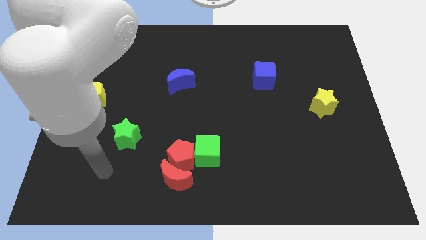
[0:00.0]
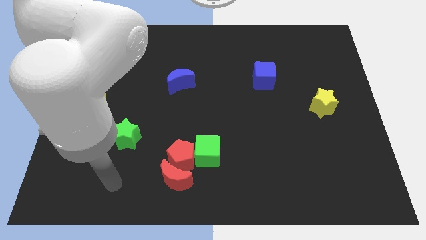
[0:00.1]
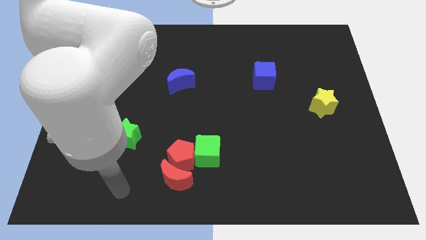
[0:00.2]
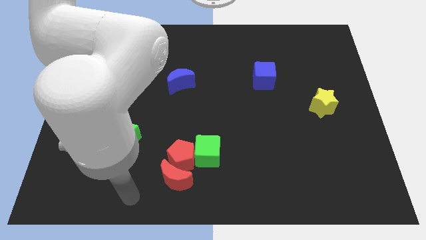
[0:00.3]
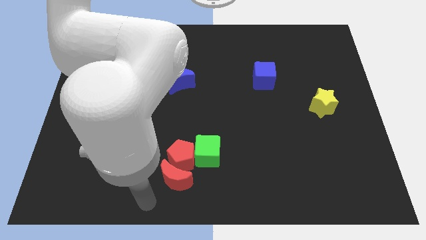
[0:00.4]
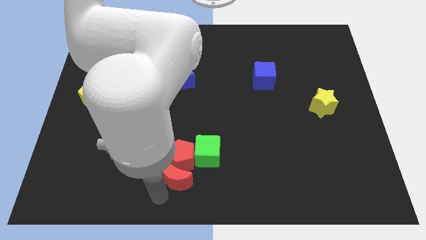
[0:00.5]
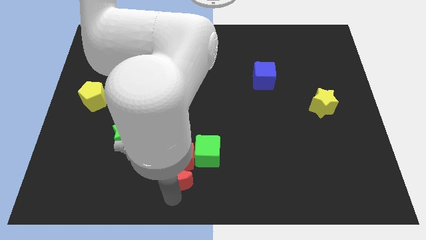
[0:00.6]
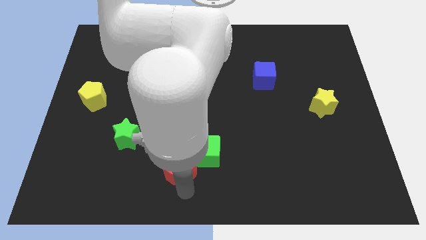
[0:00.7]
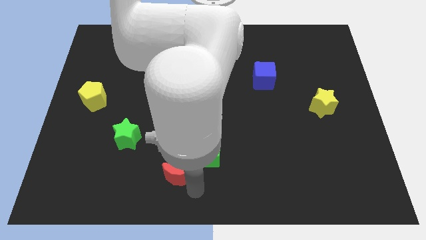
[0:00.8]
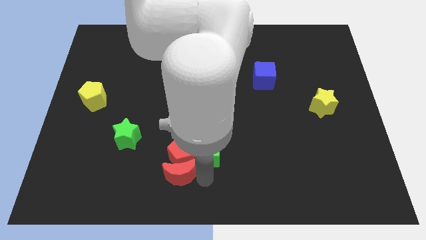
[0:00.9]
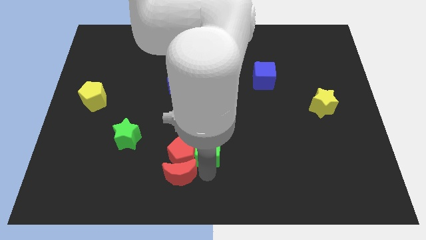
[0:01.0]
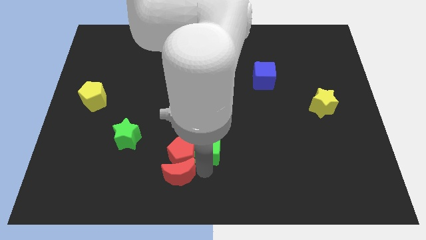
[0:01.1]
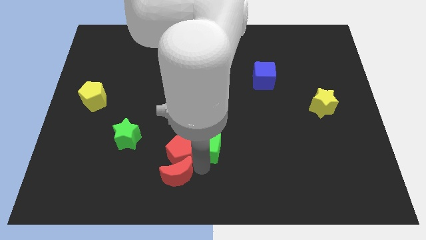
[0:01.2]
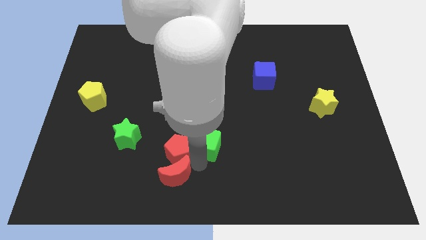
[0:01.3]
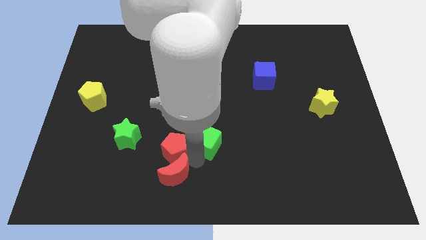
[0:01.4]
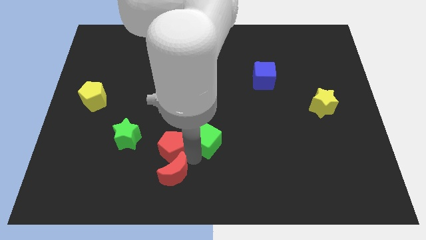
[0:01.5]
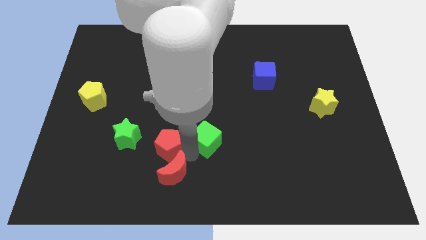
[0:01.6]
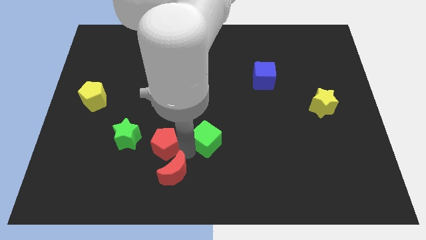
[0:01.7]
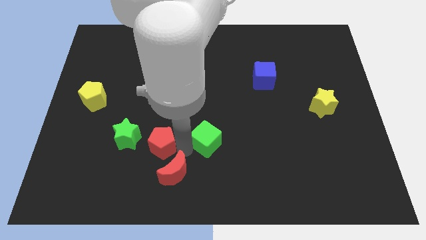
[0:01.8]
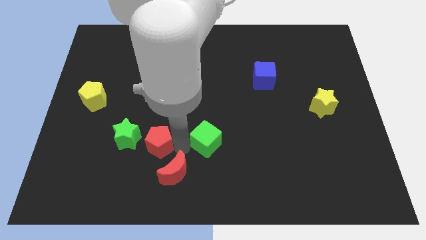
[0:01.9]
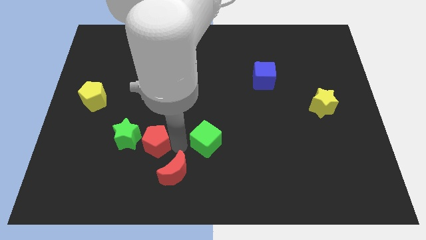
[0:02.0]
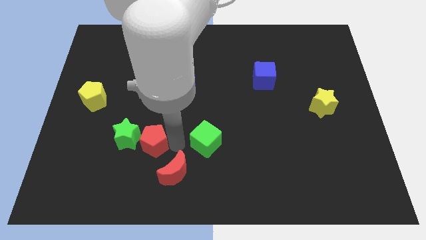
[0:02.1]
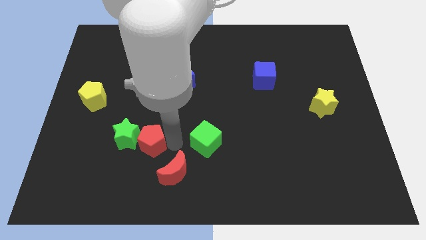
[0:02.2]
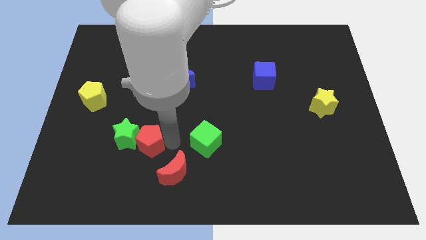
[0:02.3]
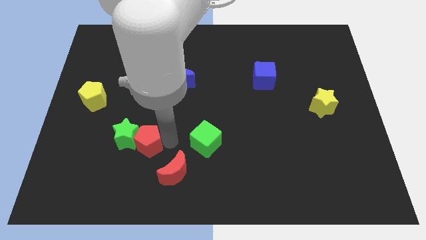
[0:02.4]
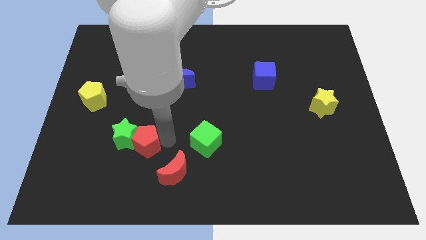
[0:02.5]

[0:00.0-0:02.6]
pull the red pentagon apart from the red moon and green cube

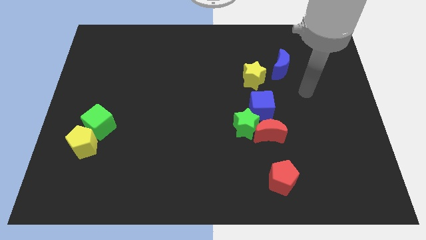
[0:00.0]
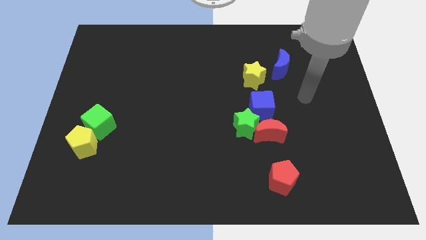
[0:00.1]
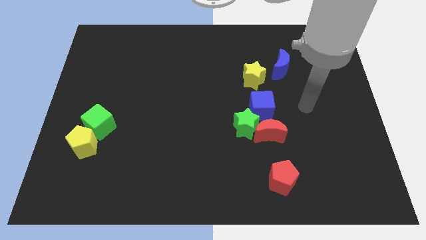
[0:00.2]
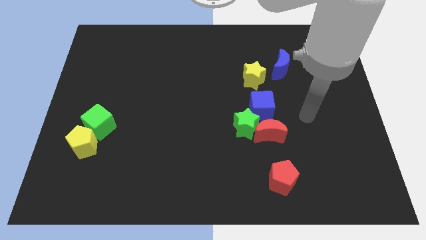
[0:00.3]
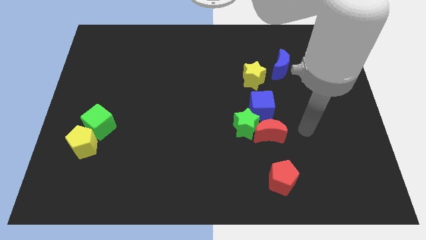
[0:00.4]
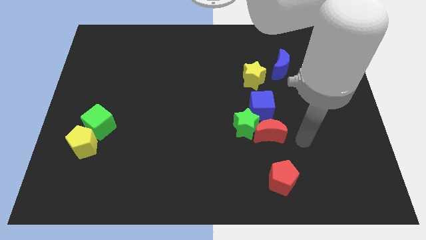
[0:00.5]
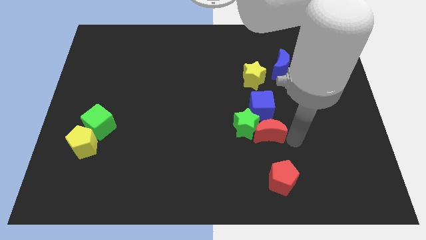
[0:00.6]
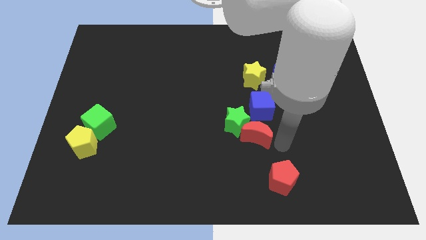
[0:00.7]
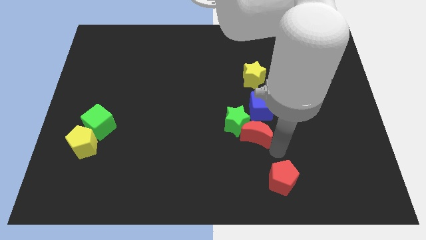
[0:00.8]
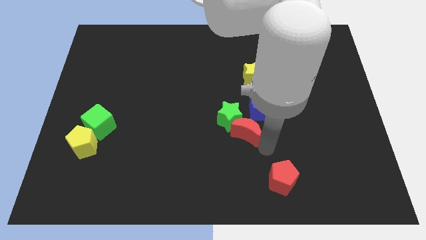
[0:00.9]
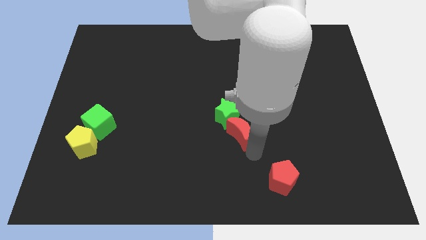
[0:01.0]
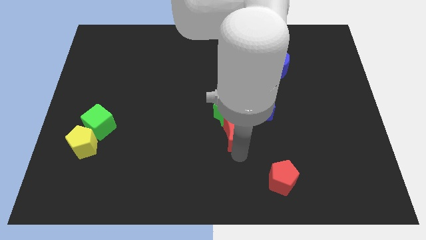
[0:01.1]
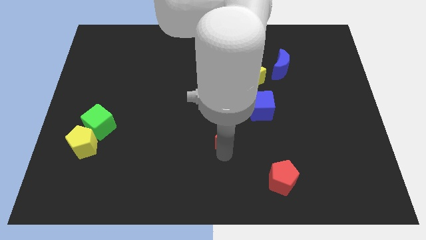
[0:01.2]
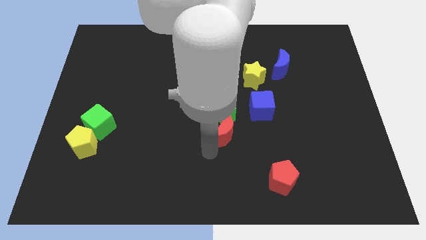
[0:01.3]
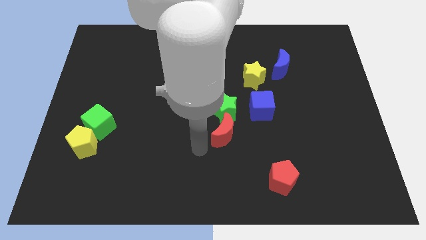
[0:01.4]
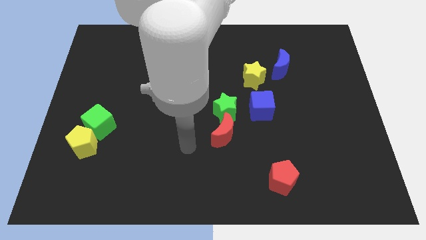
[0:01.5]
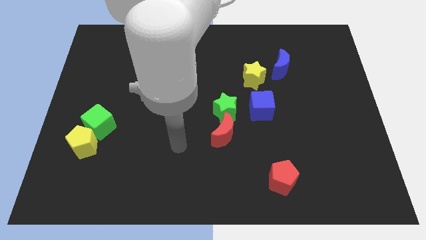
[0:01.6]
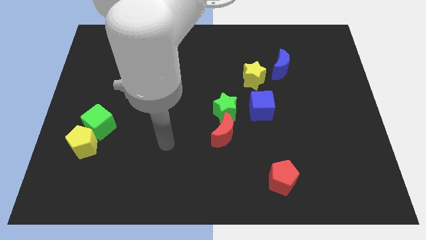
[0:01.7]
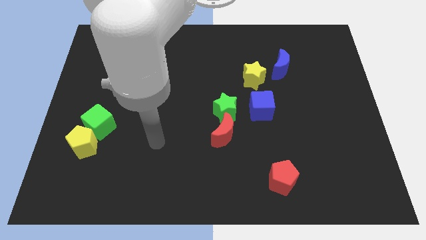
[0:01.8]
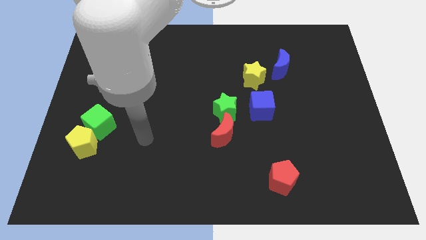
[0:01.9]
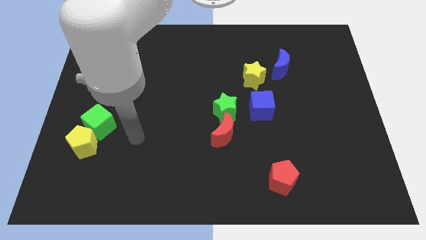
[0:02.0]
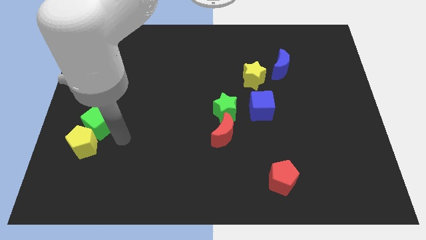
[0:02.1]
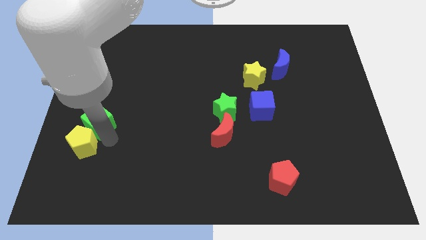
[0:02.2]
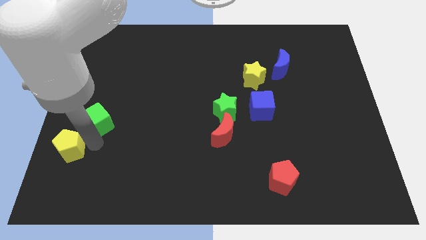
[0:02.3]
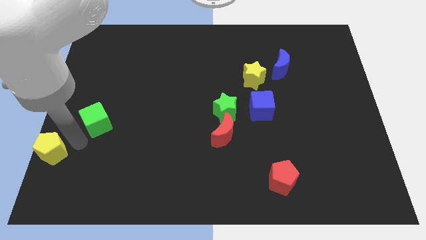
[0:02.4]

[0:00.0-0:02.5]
pull the green cube apart from the yellow pentagon

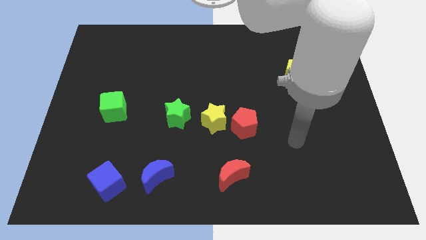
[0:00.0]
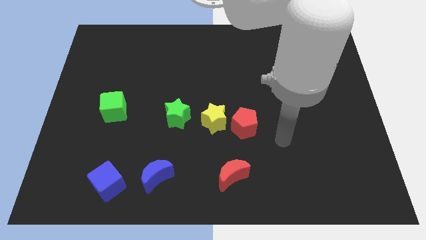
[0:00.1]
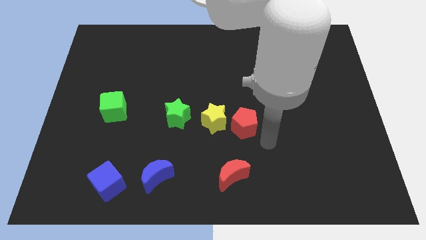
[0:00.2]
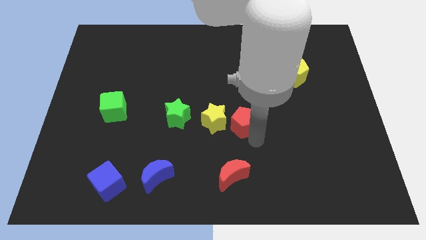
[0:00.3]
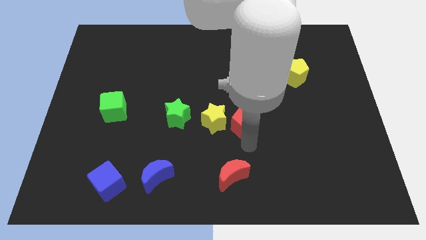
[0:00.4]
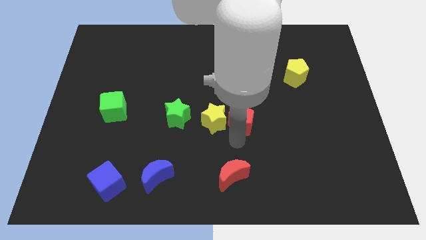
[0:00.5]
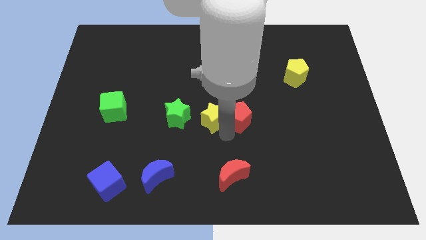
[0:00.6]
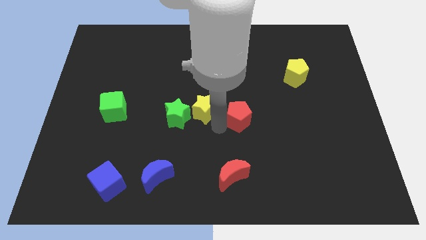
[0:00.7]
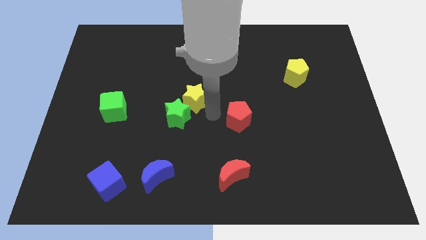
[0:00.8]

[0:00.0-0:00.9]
move the red pentagon away from the yellow star

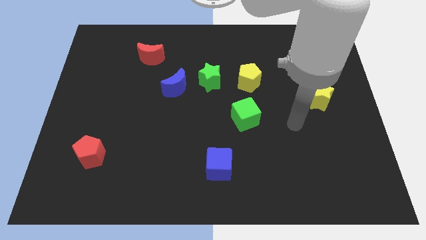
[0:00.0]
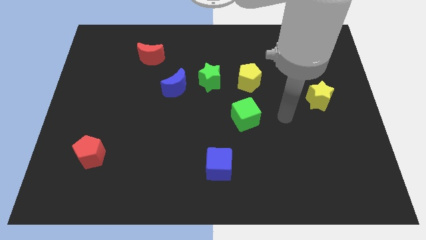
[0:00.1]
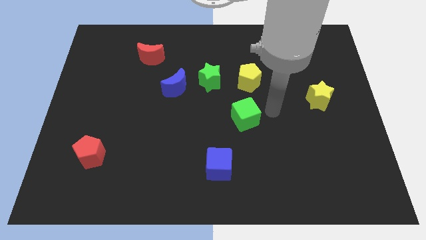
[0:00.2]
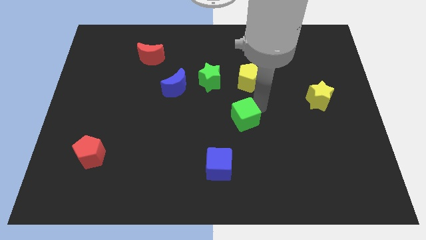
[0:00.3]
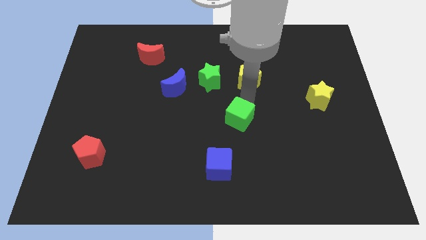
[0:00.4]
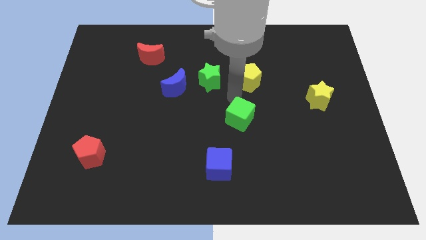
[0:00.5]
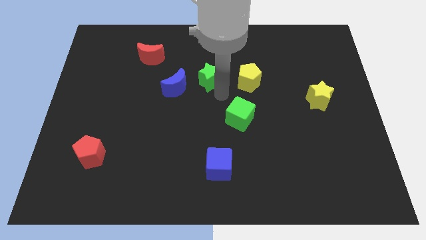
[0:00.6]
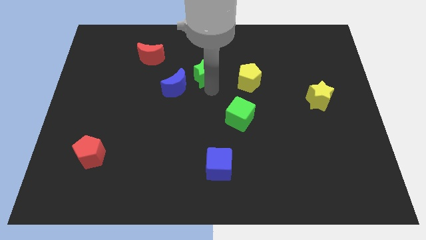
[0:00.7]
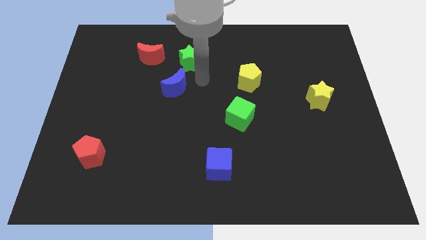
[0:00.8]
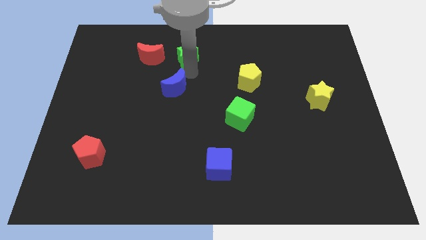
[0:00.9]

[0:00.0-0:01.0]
pull the blue moon apart from the green star

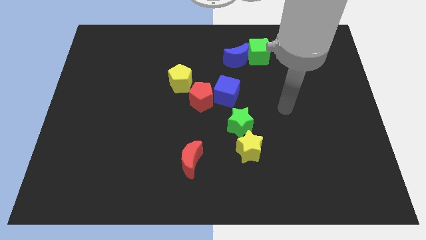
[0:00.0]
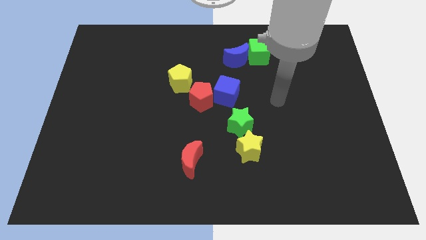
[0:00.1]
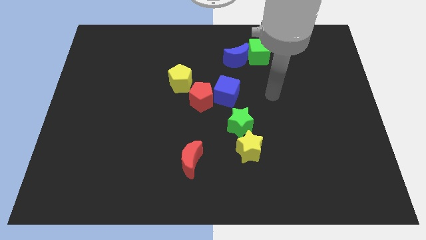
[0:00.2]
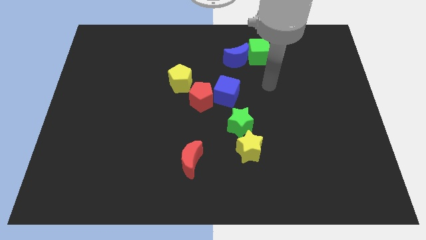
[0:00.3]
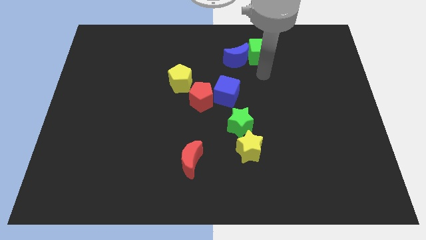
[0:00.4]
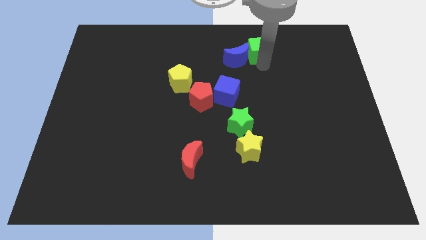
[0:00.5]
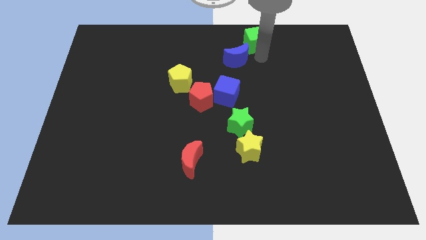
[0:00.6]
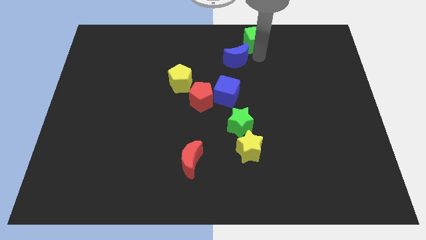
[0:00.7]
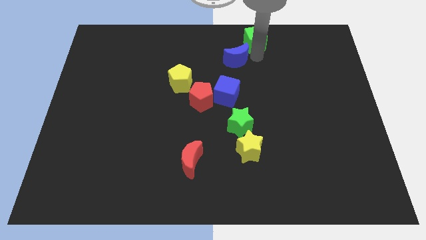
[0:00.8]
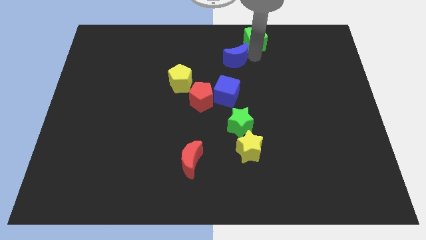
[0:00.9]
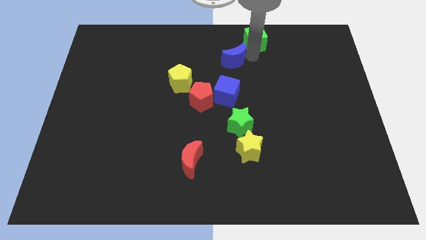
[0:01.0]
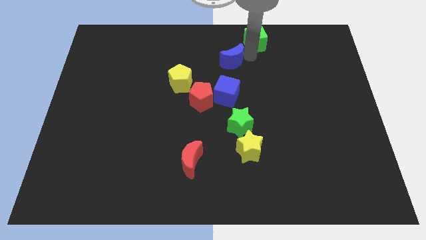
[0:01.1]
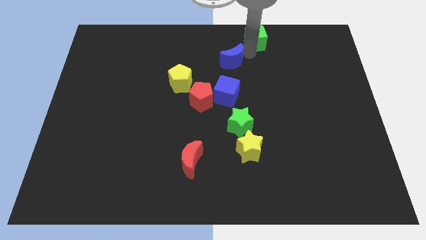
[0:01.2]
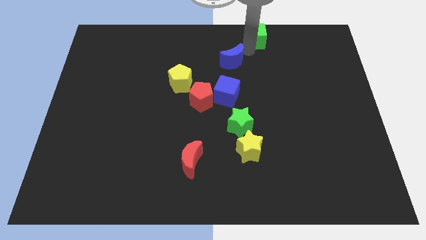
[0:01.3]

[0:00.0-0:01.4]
separate the blue moon from the green cube

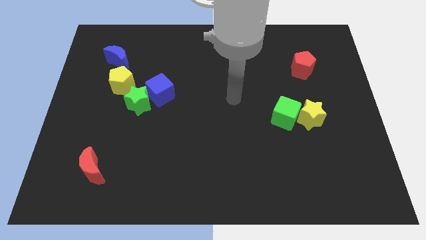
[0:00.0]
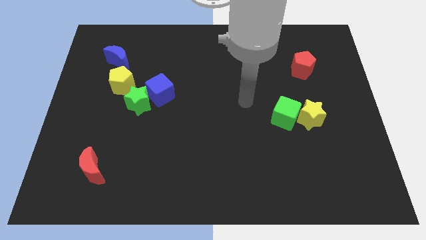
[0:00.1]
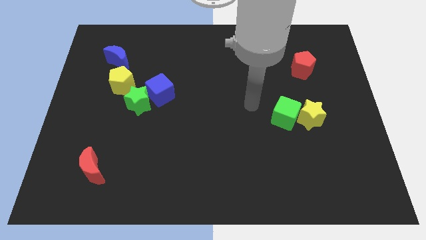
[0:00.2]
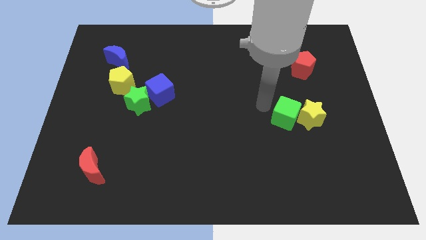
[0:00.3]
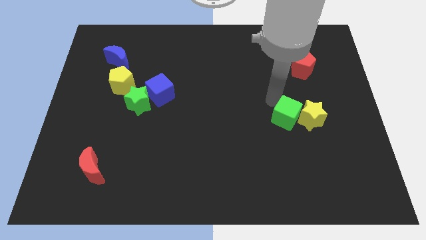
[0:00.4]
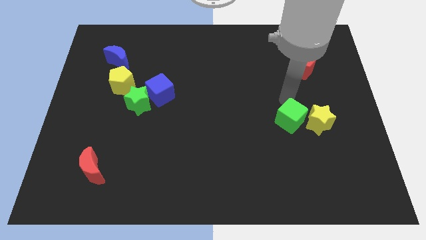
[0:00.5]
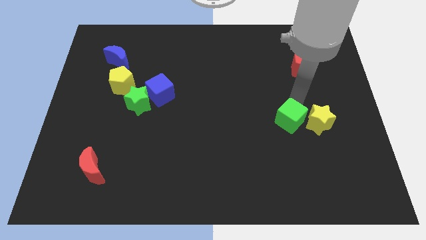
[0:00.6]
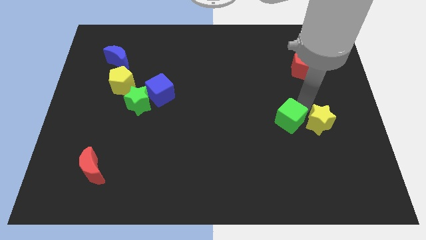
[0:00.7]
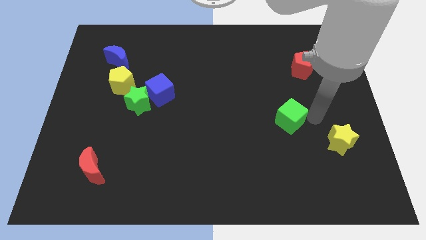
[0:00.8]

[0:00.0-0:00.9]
pull the green cube apart from the yellow star
